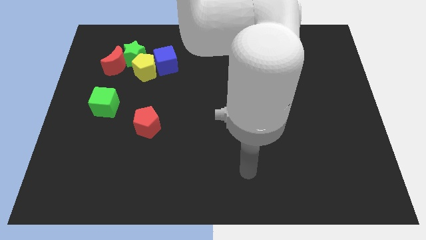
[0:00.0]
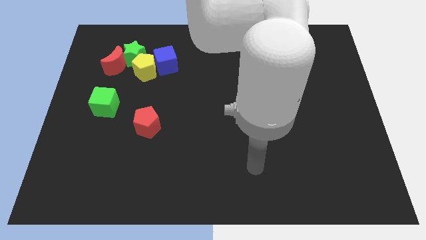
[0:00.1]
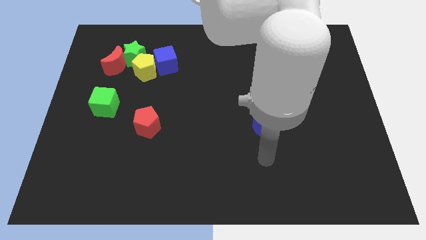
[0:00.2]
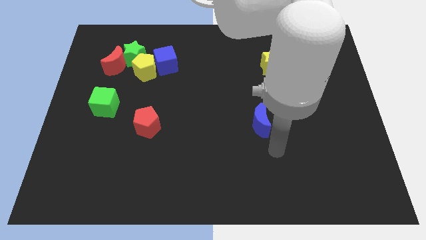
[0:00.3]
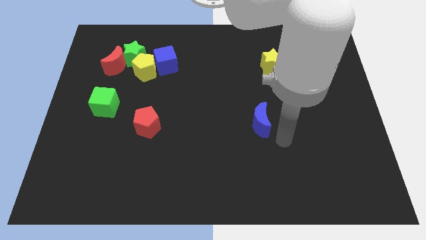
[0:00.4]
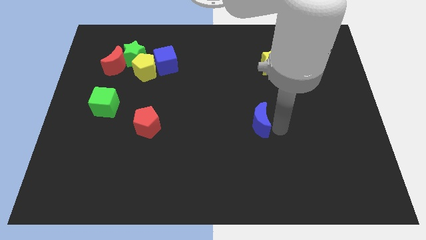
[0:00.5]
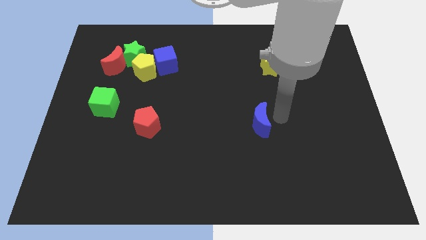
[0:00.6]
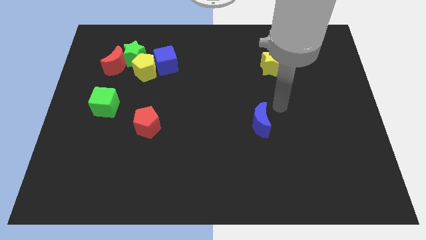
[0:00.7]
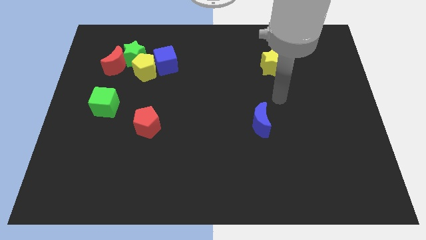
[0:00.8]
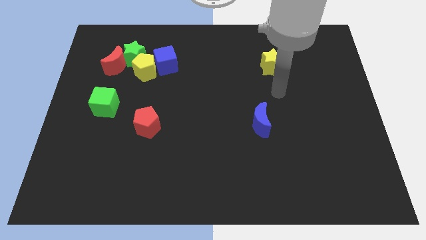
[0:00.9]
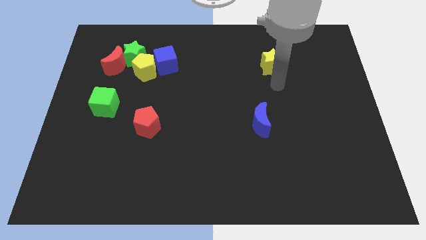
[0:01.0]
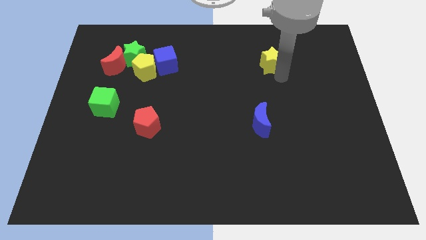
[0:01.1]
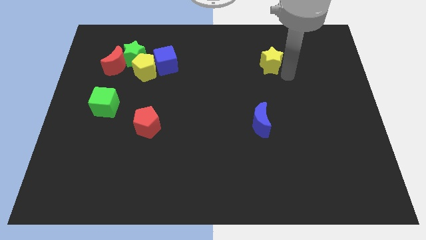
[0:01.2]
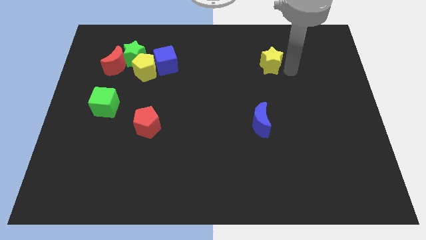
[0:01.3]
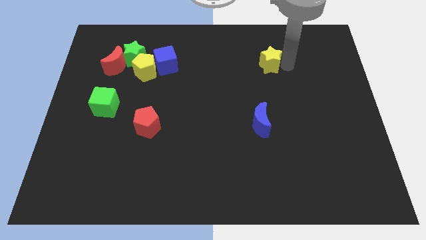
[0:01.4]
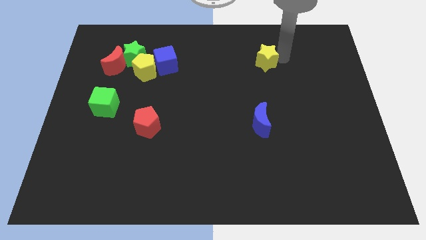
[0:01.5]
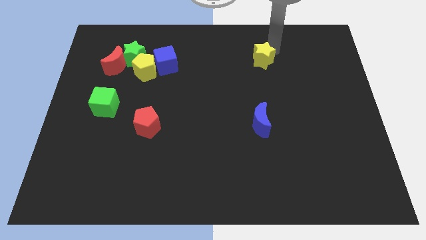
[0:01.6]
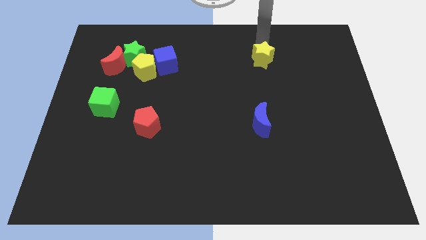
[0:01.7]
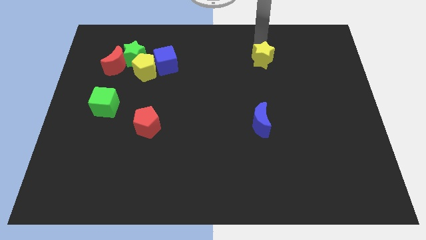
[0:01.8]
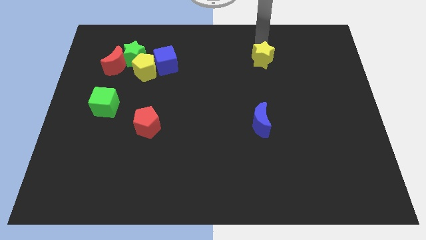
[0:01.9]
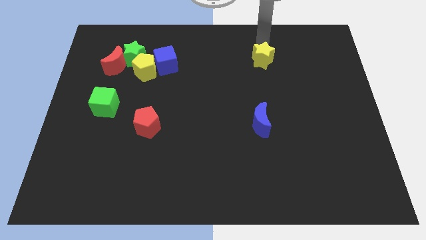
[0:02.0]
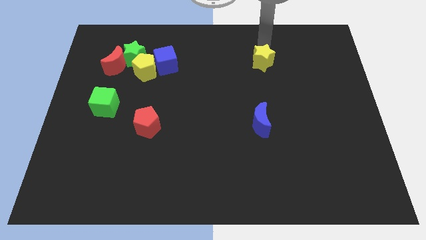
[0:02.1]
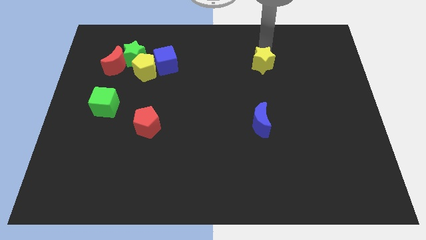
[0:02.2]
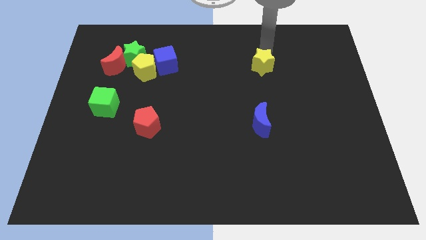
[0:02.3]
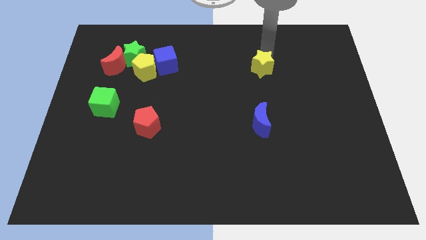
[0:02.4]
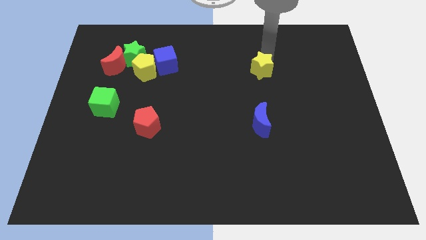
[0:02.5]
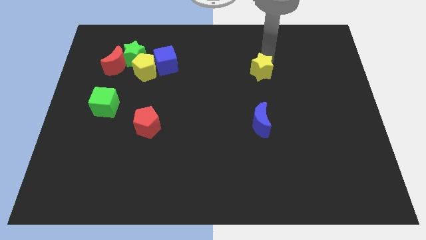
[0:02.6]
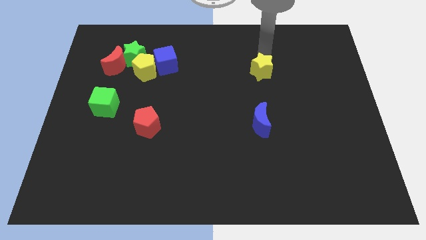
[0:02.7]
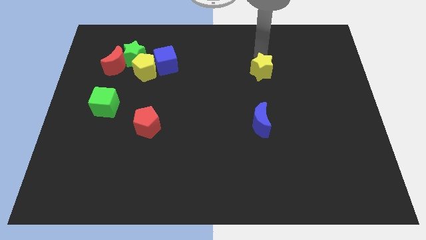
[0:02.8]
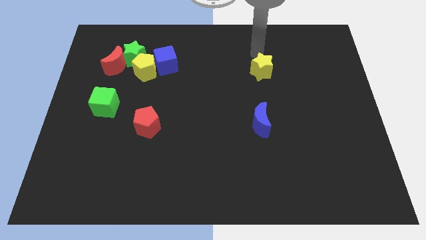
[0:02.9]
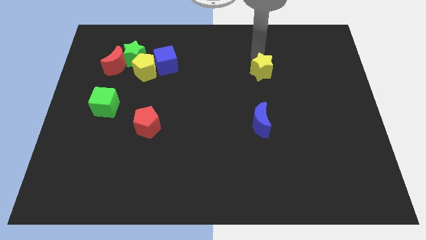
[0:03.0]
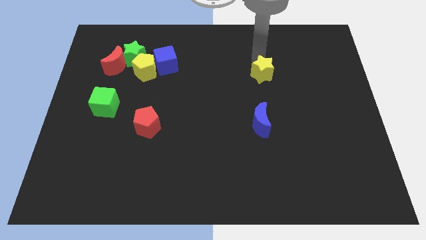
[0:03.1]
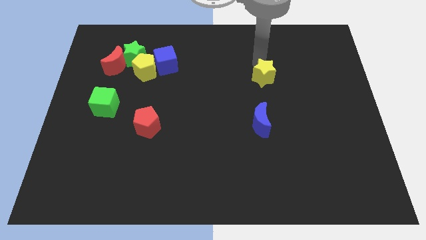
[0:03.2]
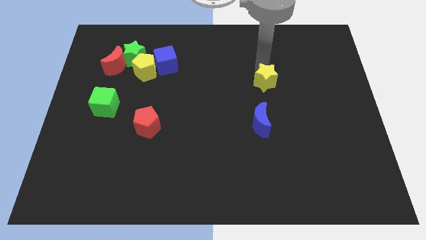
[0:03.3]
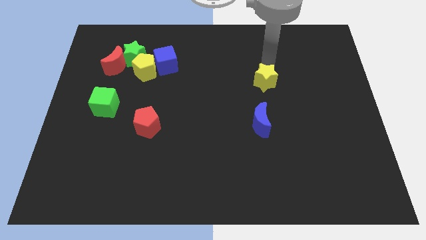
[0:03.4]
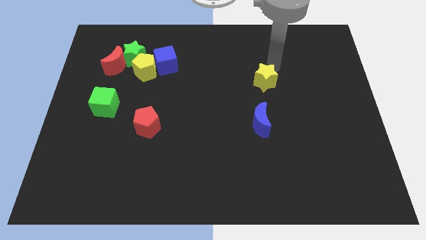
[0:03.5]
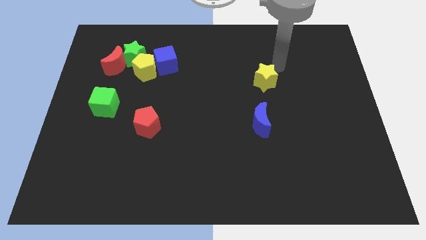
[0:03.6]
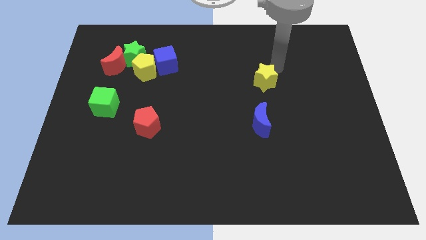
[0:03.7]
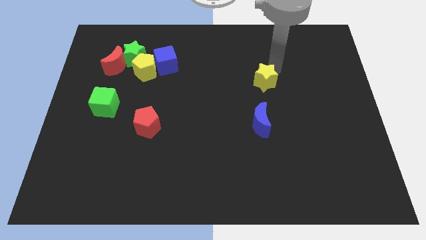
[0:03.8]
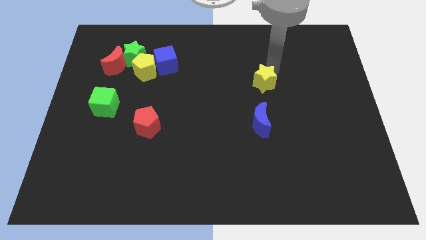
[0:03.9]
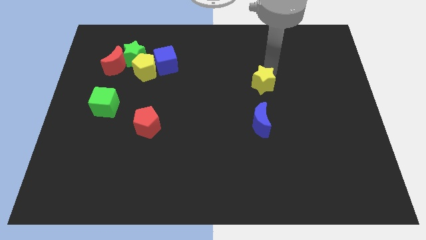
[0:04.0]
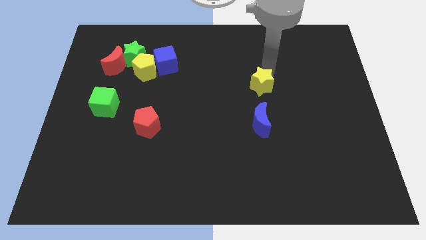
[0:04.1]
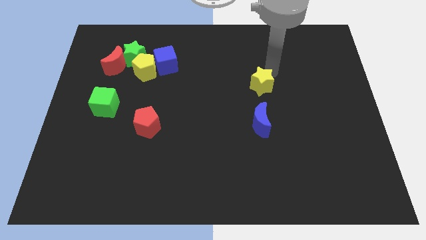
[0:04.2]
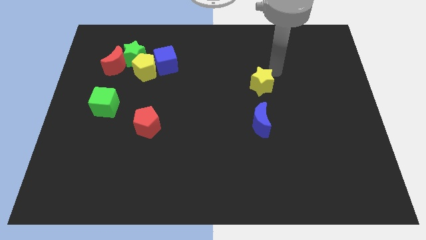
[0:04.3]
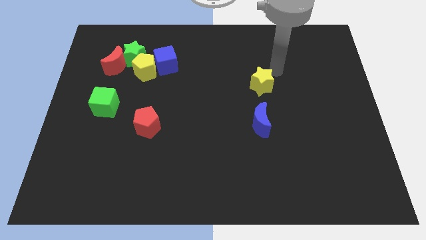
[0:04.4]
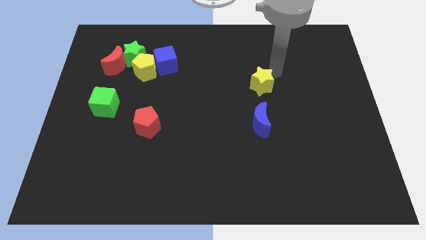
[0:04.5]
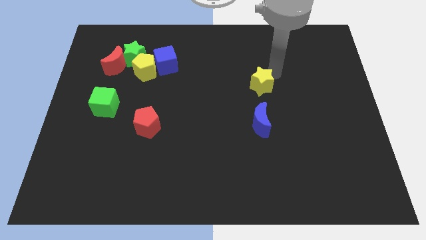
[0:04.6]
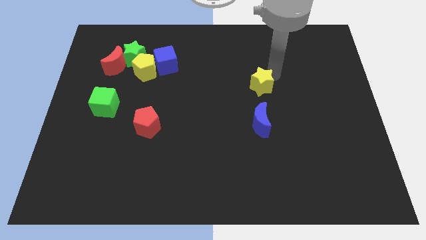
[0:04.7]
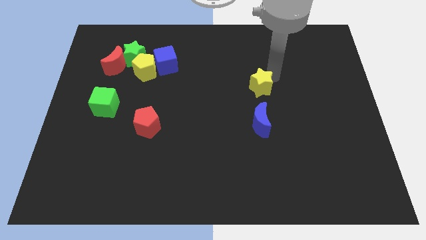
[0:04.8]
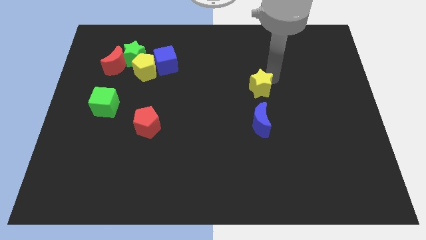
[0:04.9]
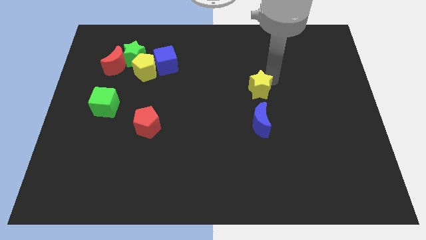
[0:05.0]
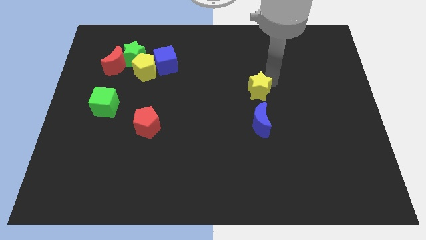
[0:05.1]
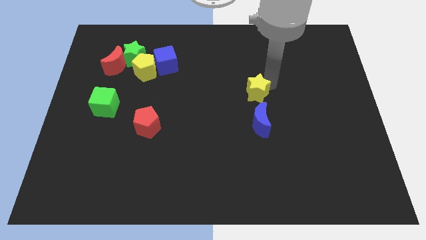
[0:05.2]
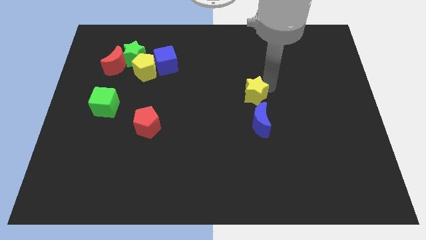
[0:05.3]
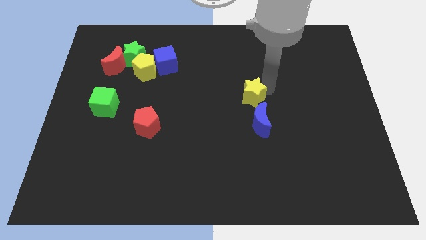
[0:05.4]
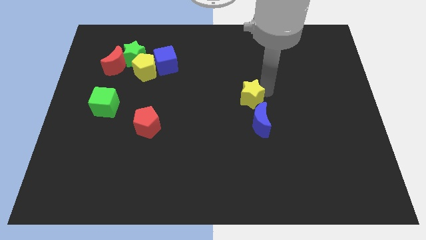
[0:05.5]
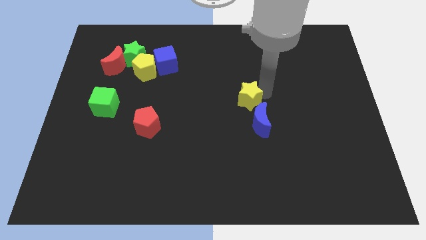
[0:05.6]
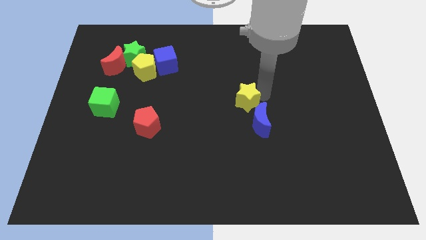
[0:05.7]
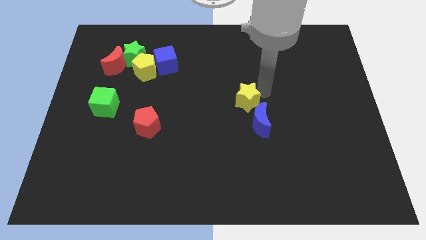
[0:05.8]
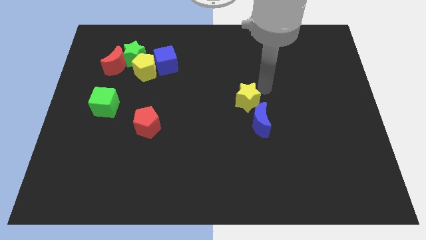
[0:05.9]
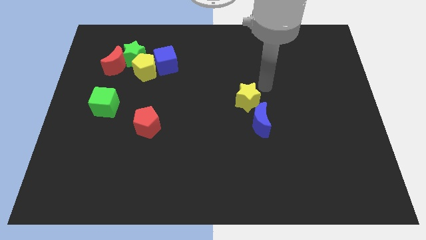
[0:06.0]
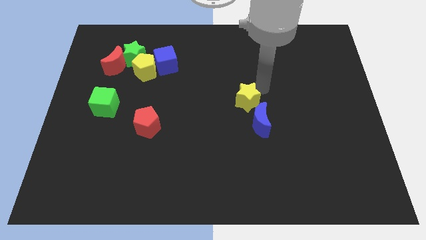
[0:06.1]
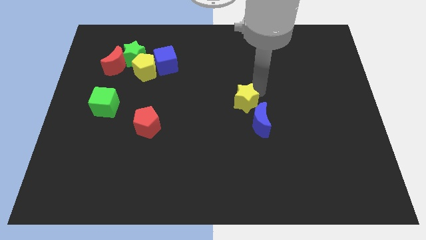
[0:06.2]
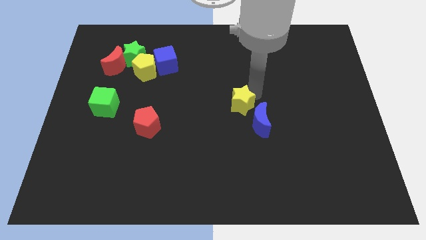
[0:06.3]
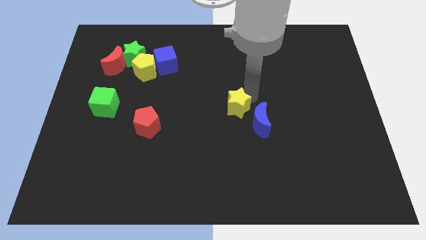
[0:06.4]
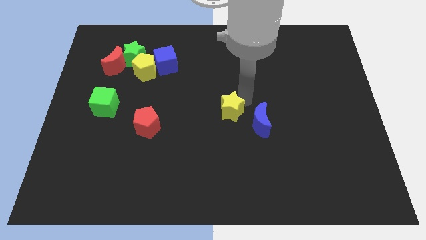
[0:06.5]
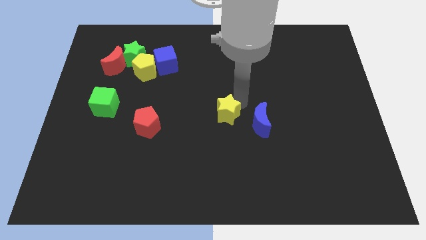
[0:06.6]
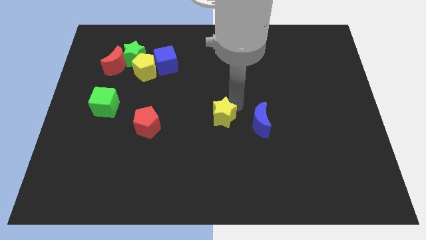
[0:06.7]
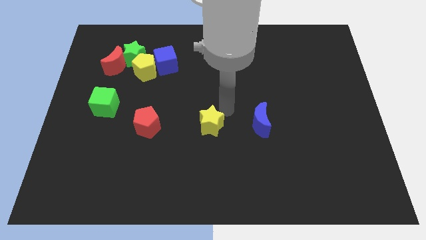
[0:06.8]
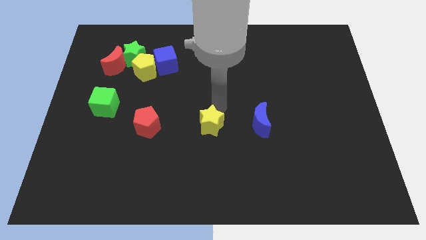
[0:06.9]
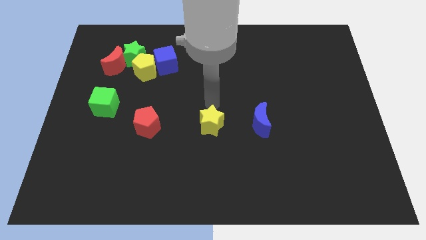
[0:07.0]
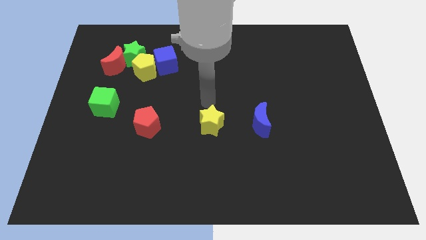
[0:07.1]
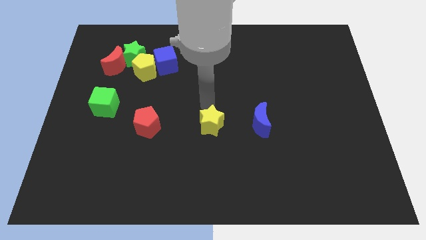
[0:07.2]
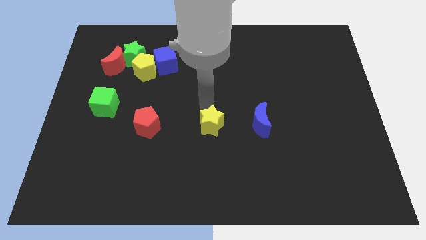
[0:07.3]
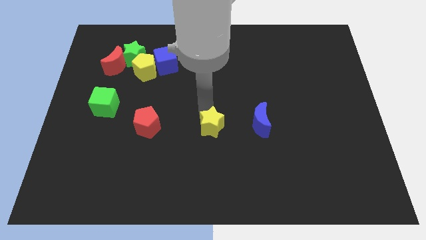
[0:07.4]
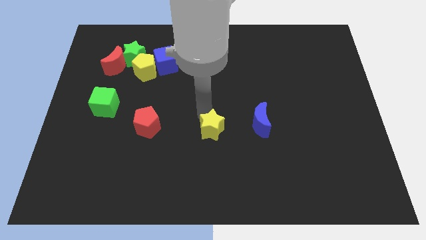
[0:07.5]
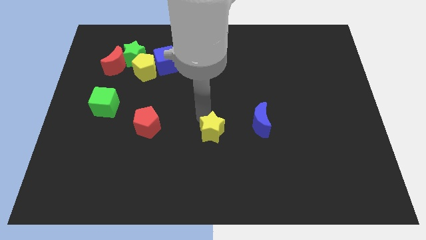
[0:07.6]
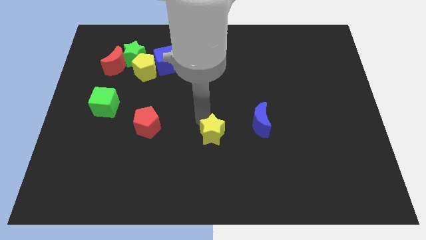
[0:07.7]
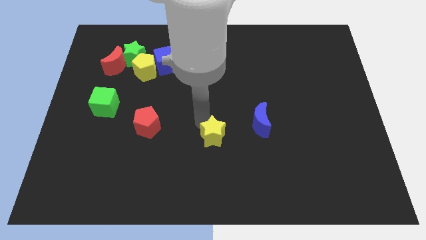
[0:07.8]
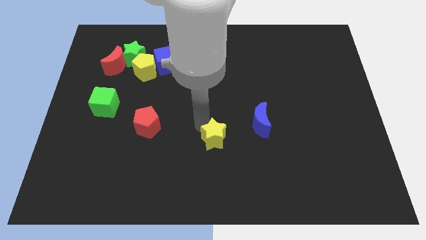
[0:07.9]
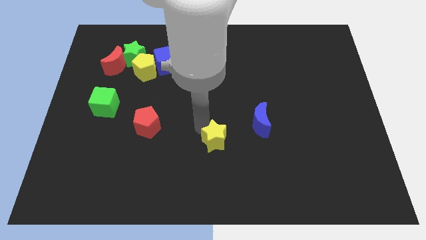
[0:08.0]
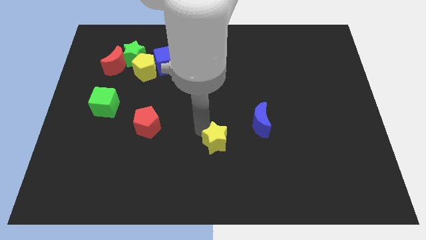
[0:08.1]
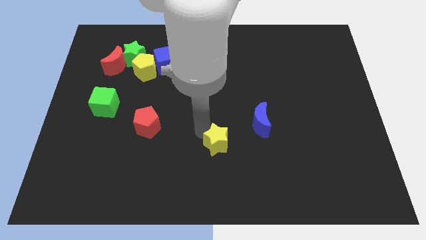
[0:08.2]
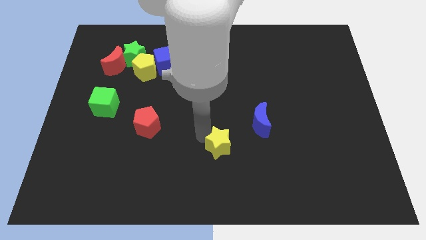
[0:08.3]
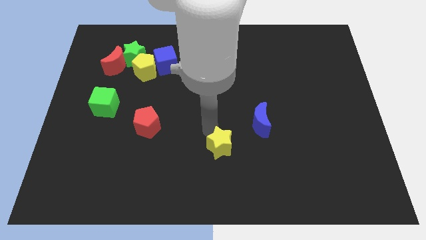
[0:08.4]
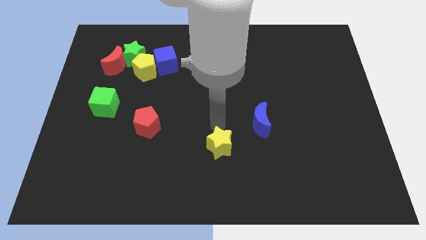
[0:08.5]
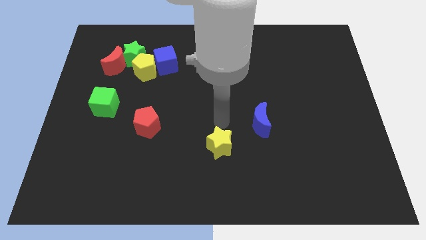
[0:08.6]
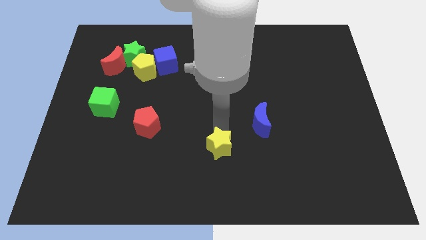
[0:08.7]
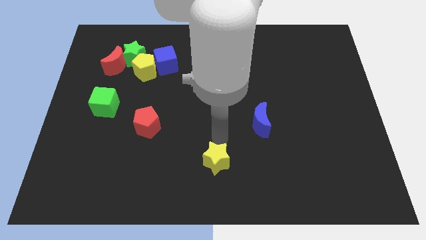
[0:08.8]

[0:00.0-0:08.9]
put the yellow star to the bottom side
